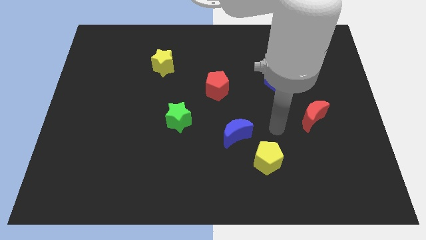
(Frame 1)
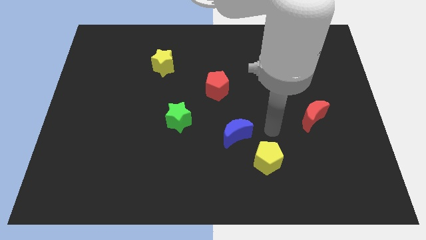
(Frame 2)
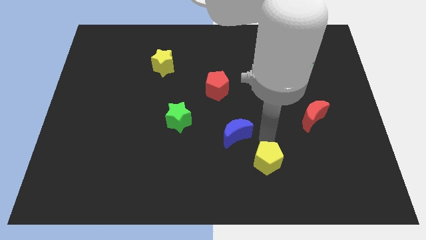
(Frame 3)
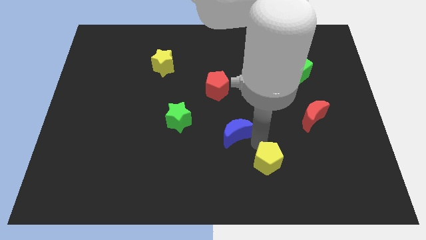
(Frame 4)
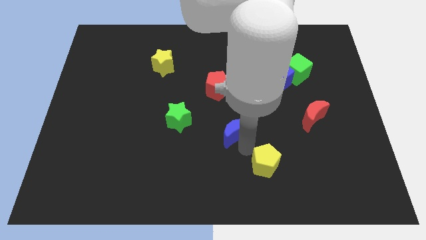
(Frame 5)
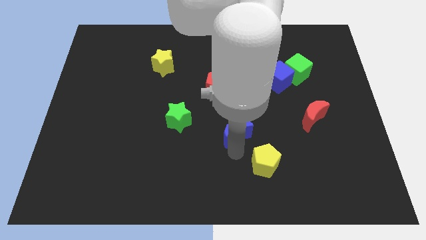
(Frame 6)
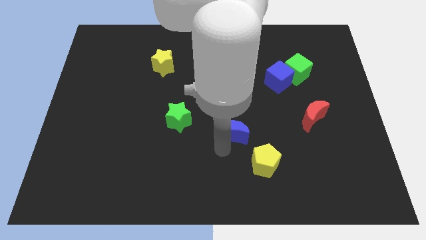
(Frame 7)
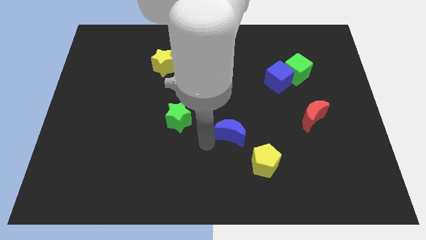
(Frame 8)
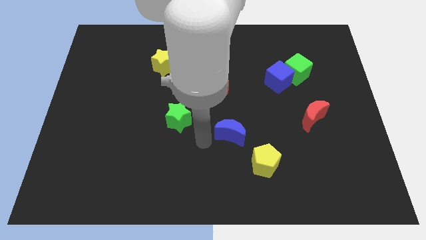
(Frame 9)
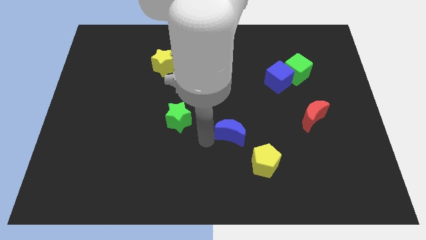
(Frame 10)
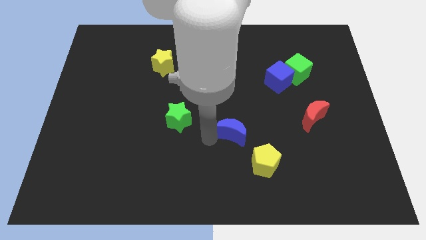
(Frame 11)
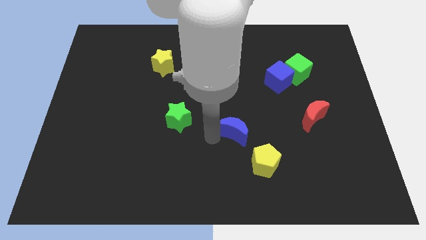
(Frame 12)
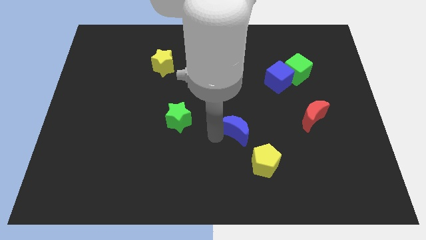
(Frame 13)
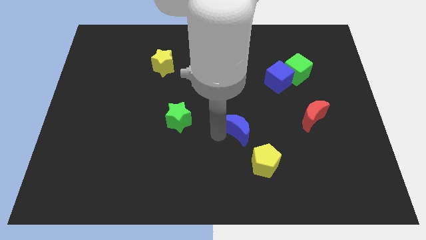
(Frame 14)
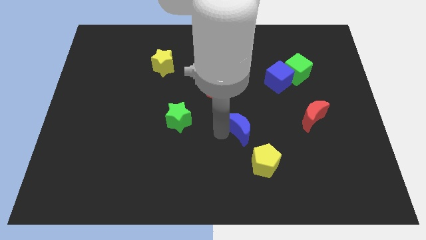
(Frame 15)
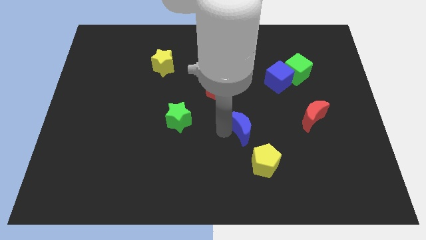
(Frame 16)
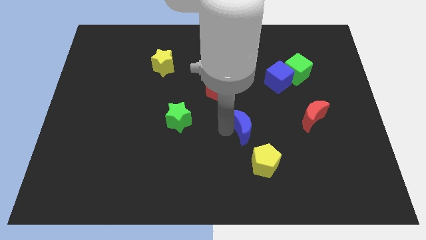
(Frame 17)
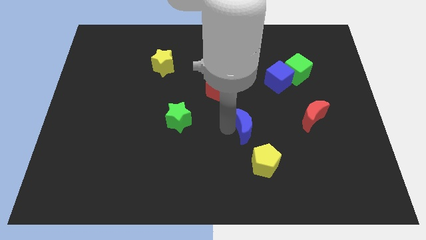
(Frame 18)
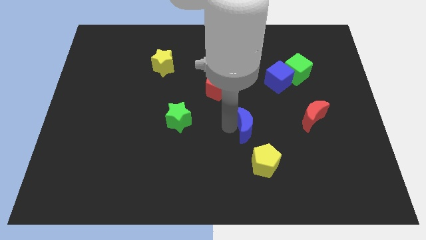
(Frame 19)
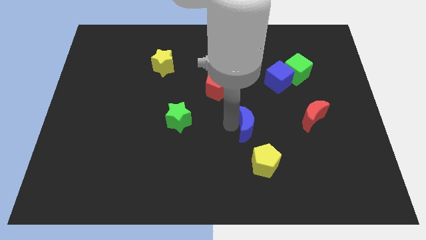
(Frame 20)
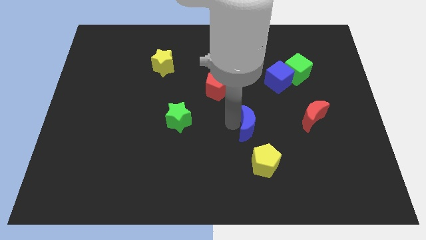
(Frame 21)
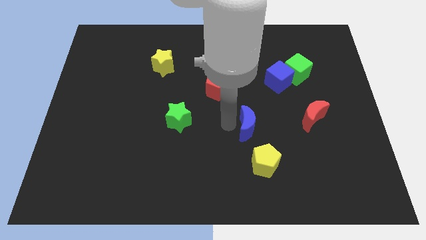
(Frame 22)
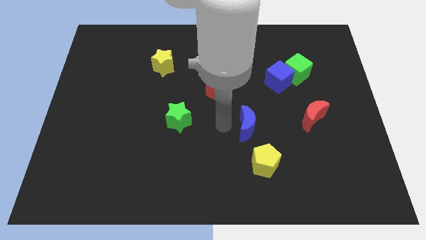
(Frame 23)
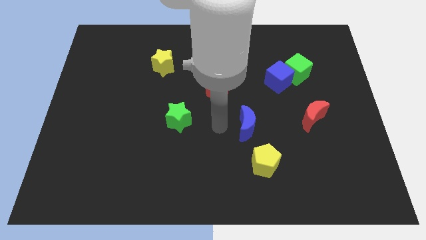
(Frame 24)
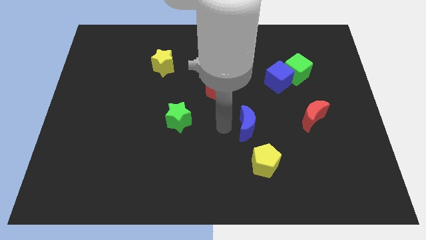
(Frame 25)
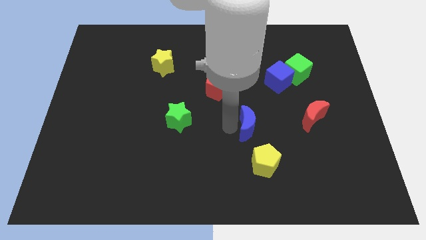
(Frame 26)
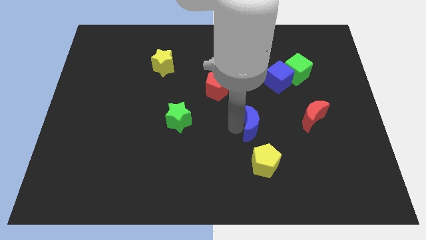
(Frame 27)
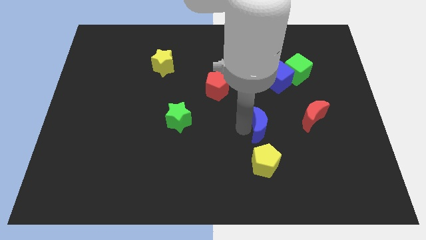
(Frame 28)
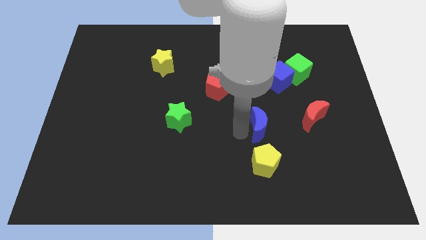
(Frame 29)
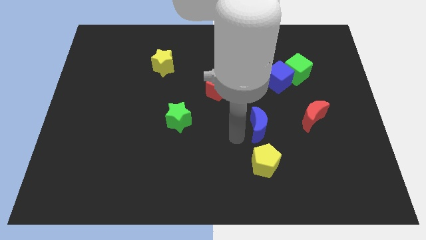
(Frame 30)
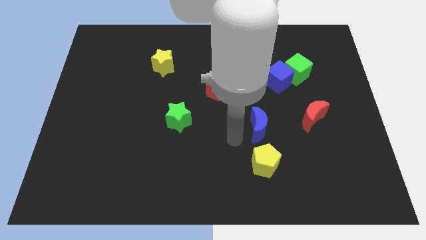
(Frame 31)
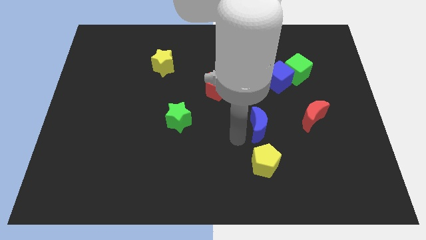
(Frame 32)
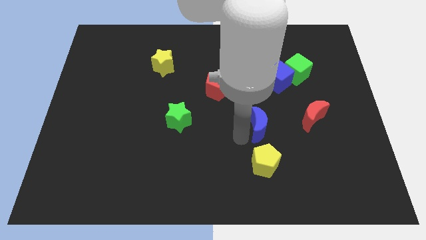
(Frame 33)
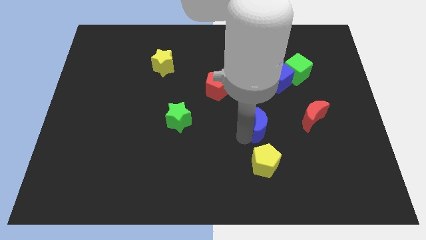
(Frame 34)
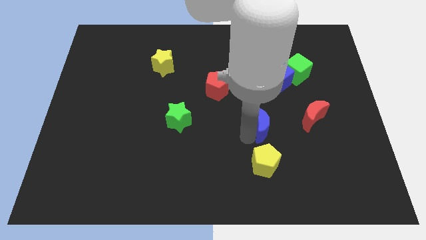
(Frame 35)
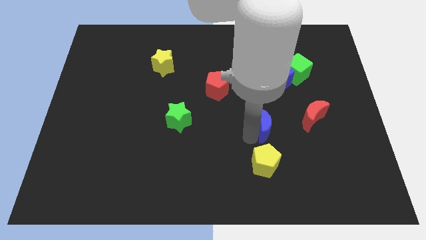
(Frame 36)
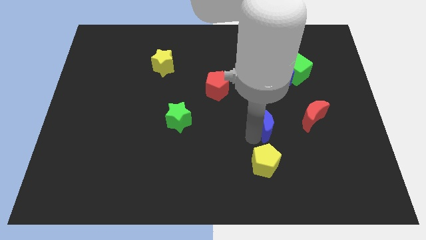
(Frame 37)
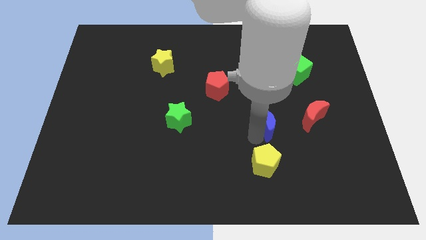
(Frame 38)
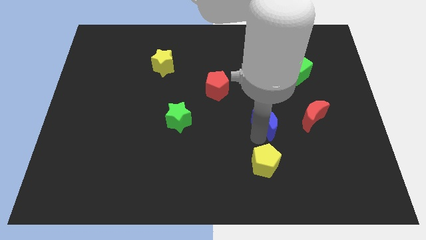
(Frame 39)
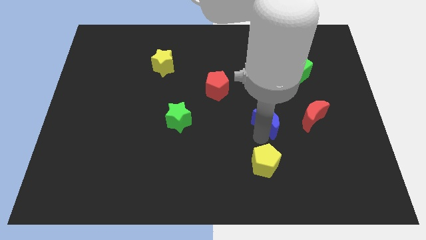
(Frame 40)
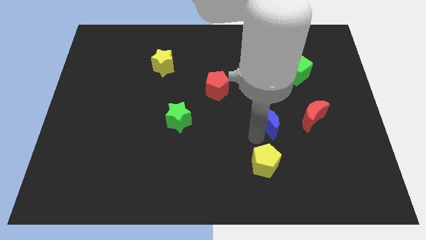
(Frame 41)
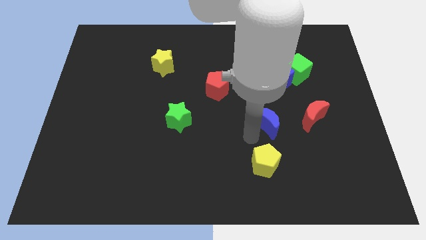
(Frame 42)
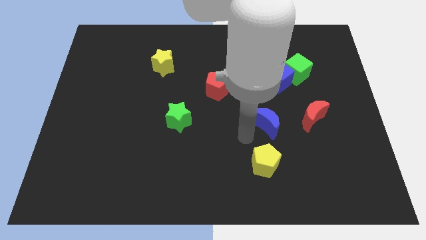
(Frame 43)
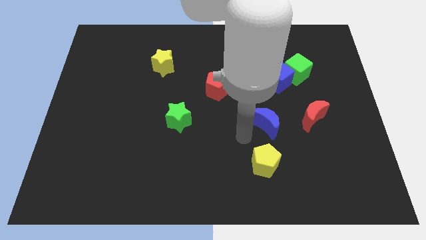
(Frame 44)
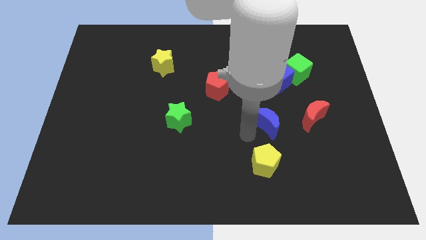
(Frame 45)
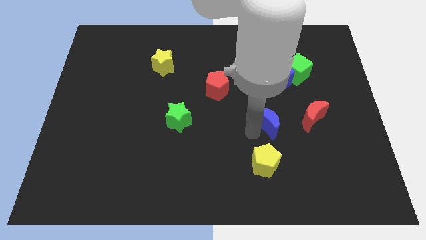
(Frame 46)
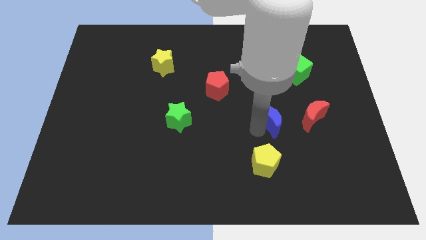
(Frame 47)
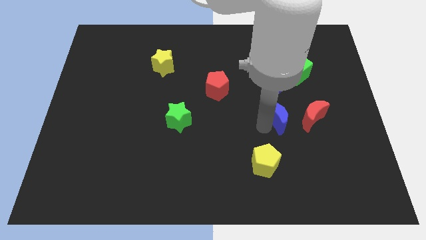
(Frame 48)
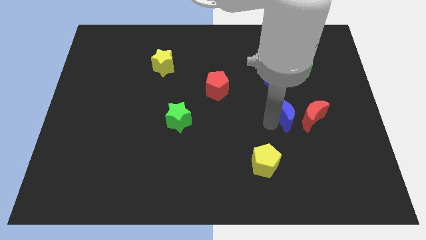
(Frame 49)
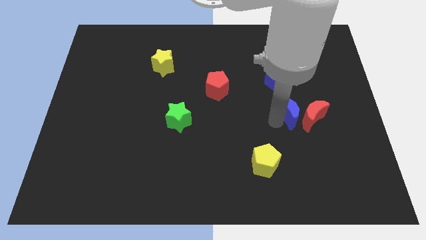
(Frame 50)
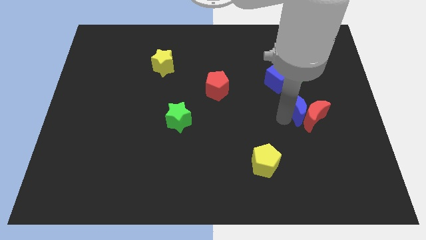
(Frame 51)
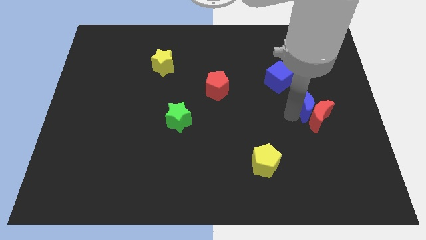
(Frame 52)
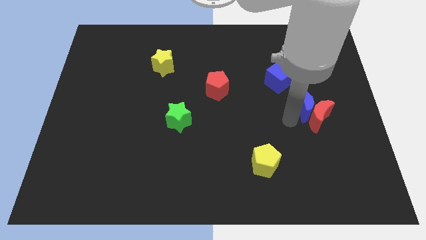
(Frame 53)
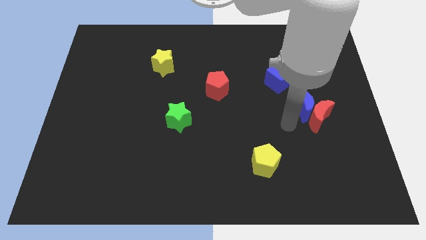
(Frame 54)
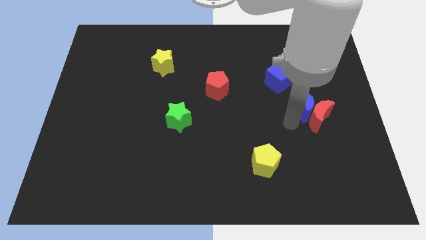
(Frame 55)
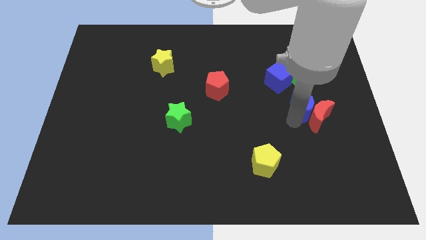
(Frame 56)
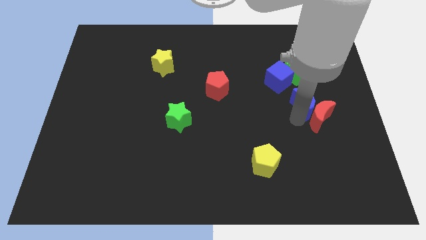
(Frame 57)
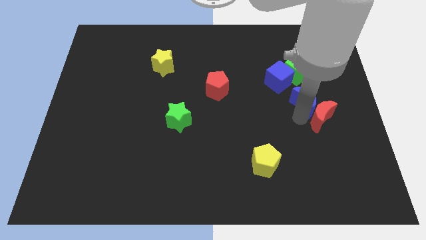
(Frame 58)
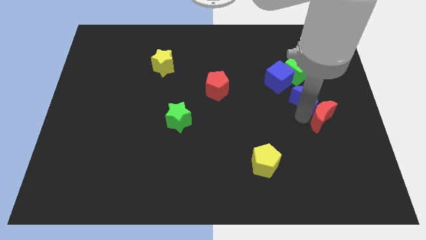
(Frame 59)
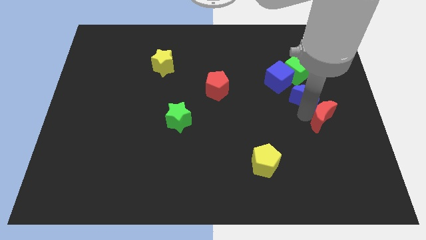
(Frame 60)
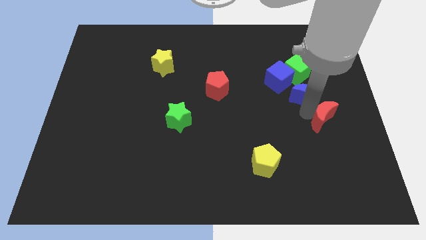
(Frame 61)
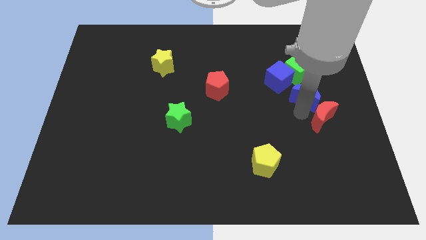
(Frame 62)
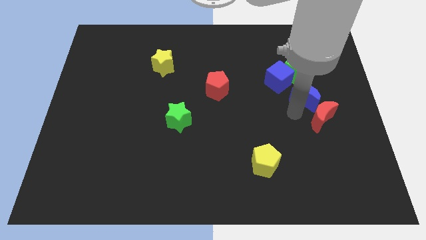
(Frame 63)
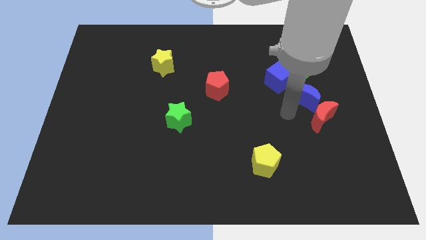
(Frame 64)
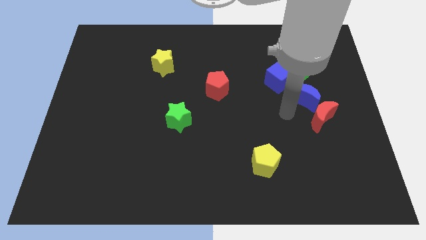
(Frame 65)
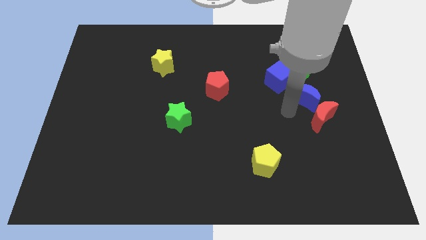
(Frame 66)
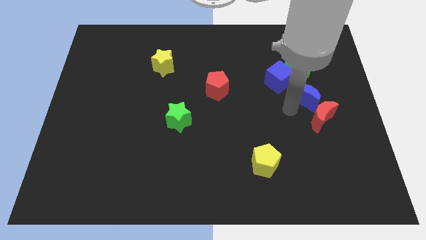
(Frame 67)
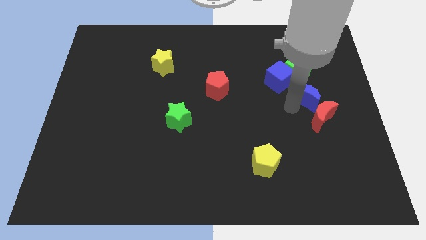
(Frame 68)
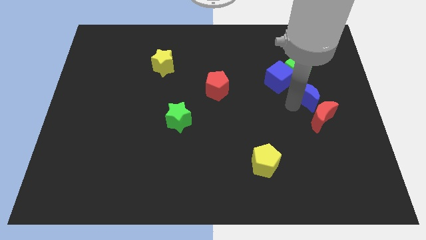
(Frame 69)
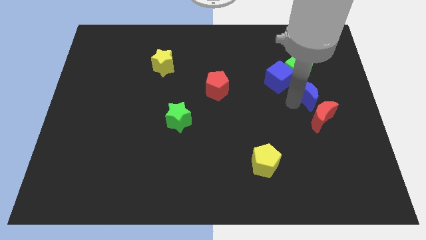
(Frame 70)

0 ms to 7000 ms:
move the blue moon to the bottom right of the green cube
